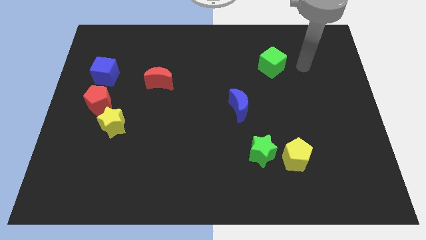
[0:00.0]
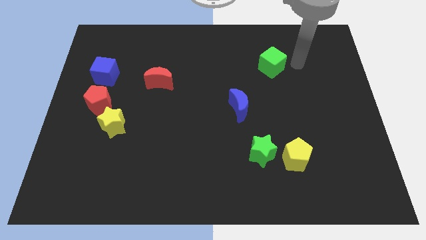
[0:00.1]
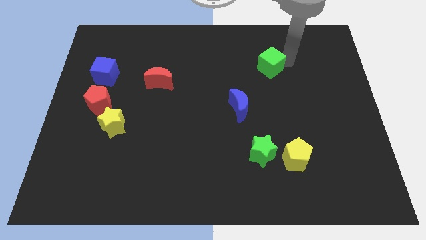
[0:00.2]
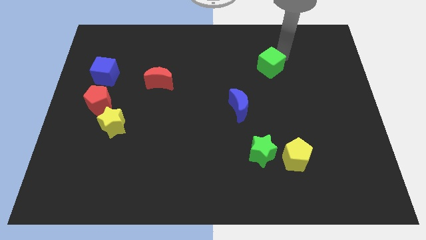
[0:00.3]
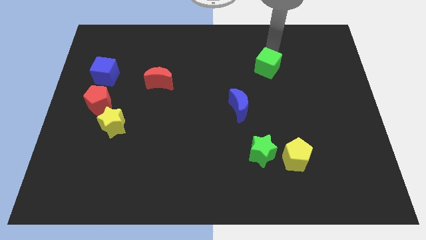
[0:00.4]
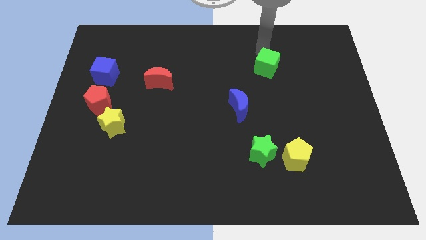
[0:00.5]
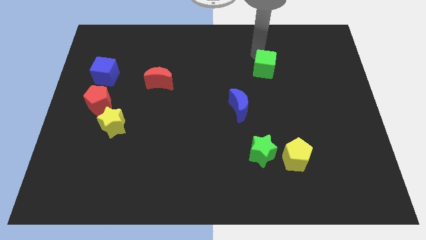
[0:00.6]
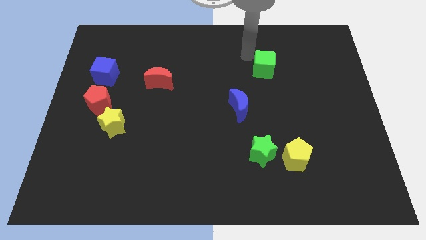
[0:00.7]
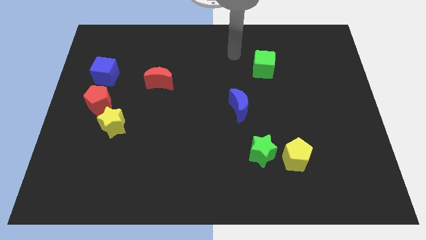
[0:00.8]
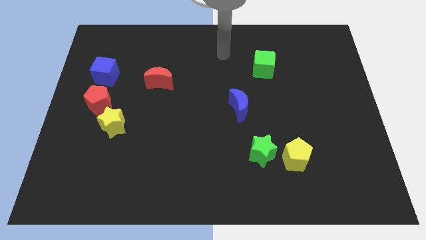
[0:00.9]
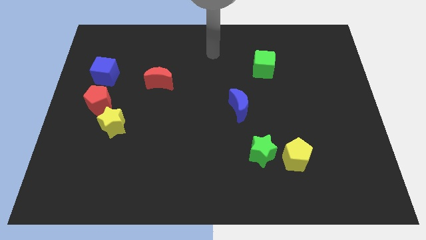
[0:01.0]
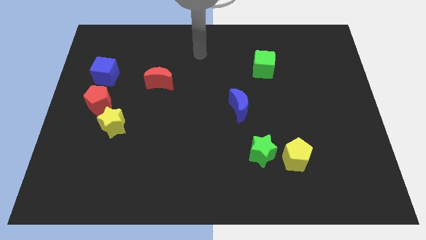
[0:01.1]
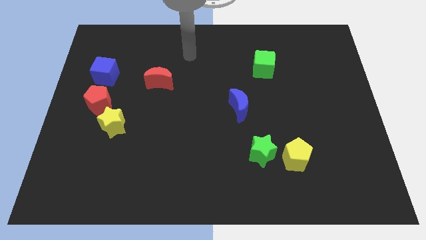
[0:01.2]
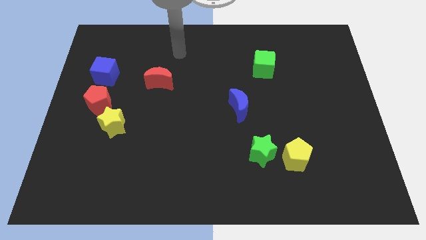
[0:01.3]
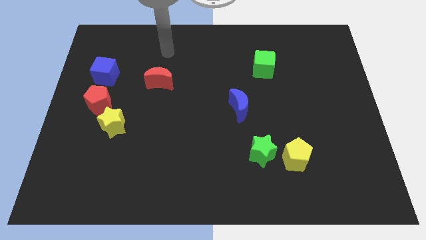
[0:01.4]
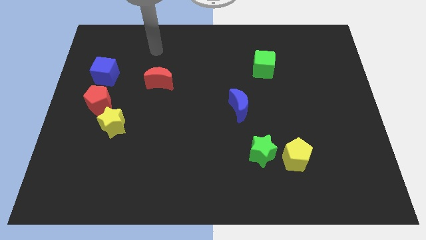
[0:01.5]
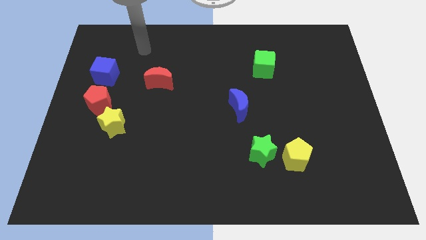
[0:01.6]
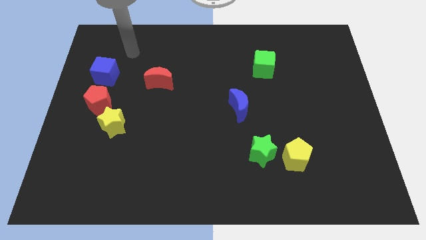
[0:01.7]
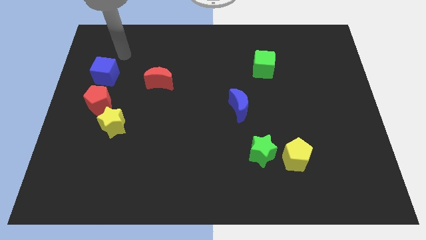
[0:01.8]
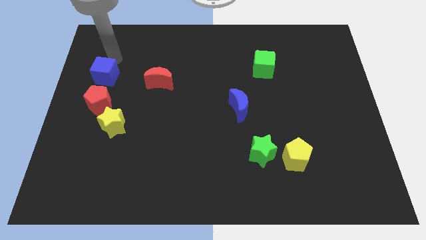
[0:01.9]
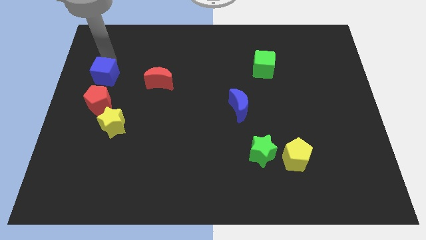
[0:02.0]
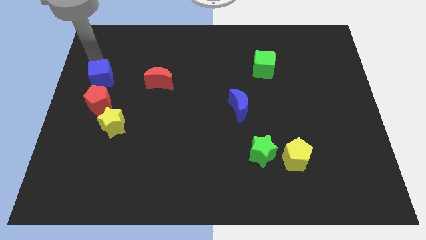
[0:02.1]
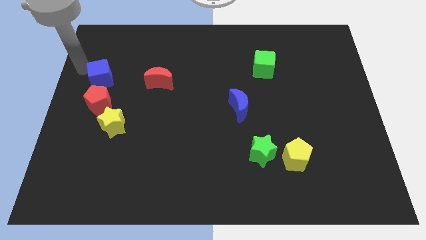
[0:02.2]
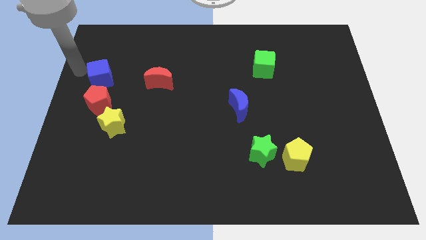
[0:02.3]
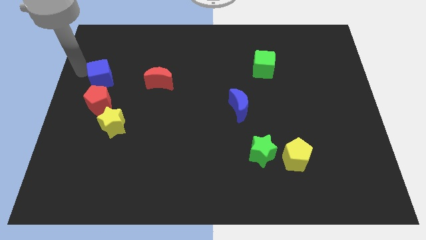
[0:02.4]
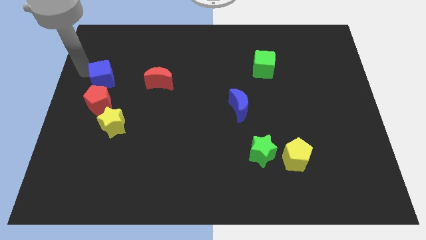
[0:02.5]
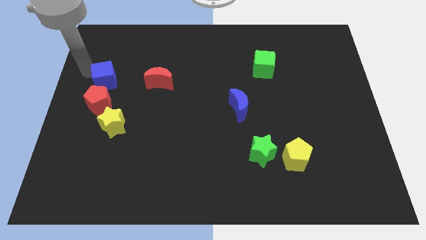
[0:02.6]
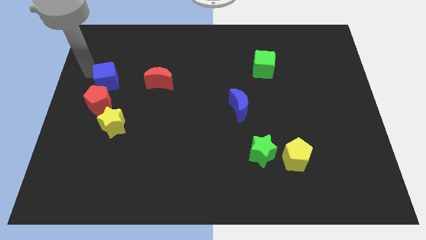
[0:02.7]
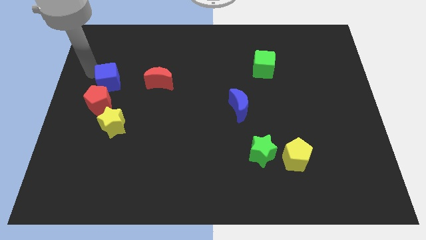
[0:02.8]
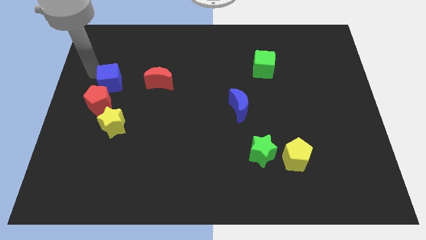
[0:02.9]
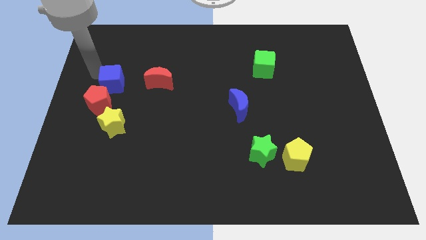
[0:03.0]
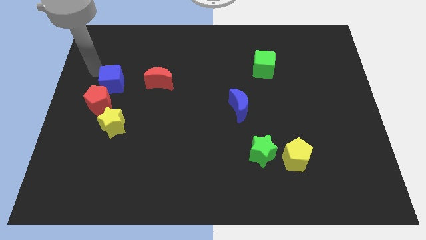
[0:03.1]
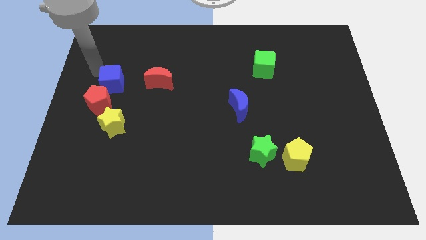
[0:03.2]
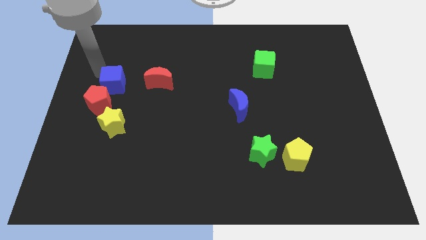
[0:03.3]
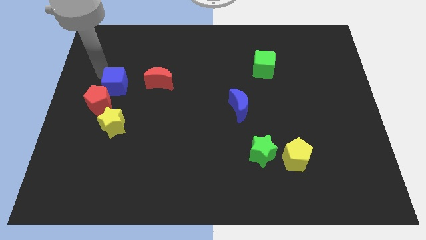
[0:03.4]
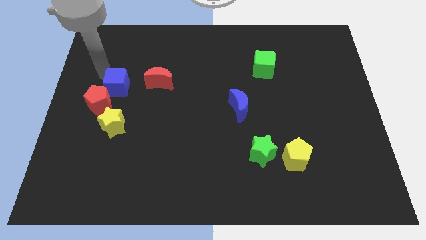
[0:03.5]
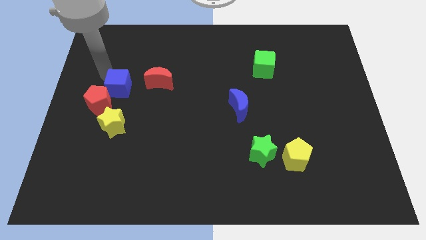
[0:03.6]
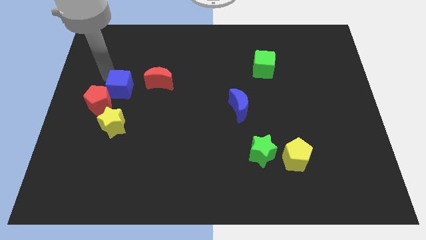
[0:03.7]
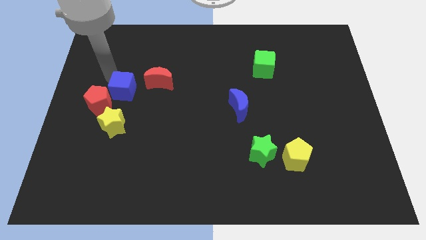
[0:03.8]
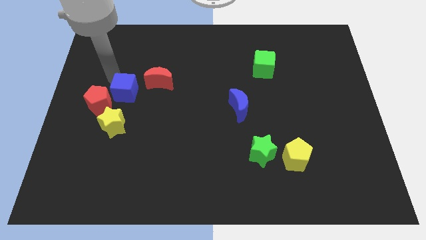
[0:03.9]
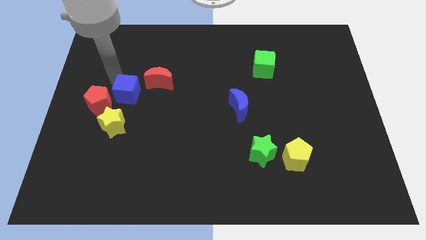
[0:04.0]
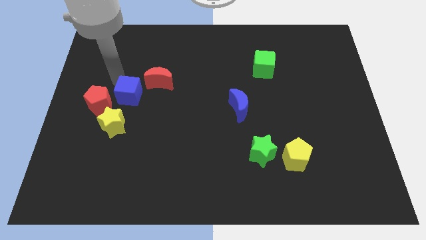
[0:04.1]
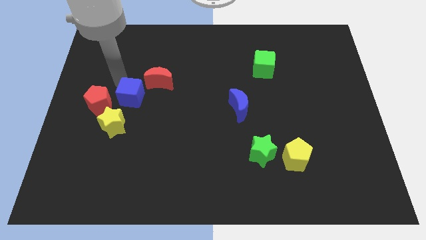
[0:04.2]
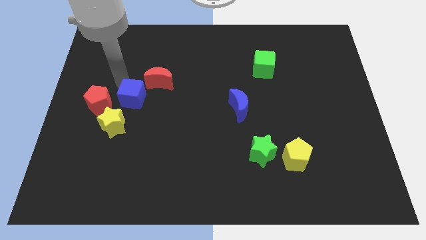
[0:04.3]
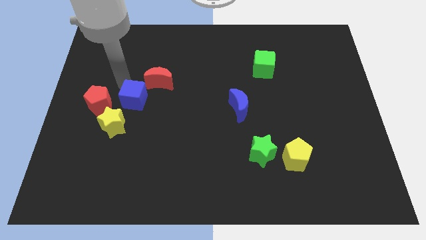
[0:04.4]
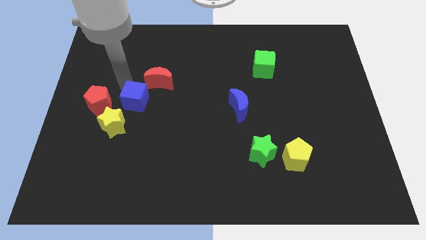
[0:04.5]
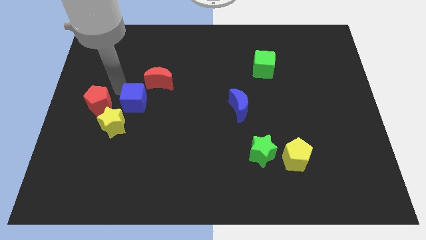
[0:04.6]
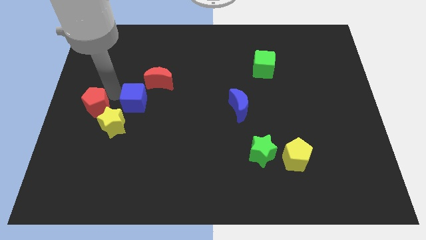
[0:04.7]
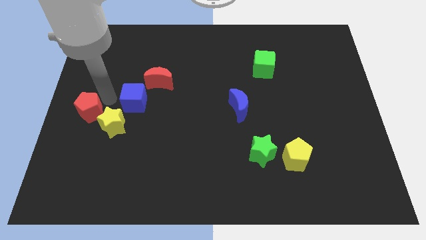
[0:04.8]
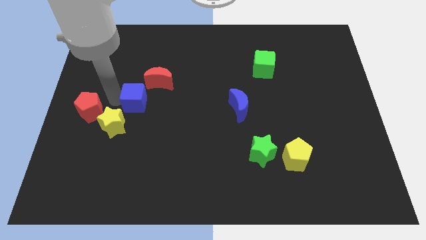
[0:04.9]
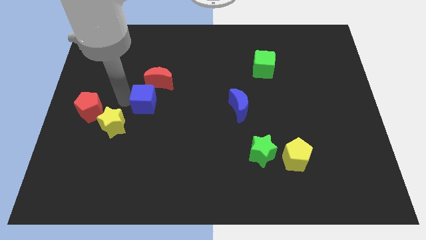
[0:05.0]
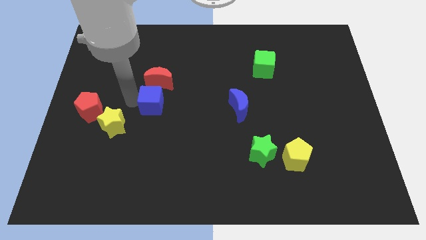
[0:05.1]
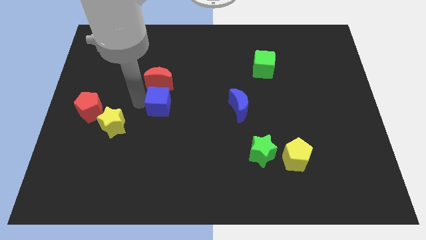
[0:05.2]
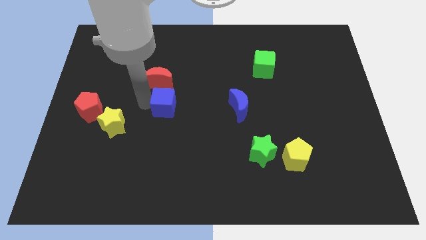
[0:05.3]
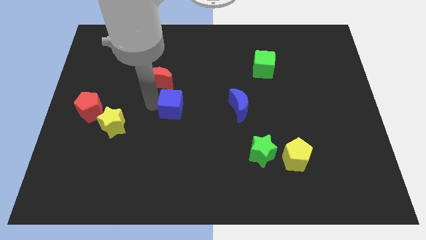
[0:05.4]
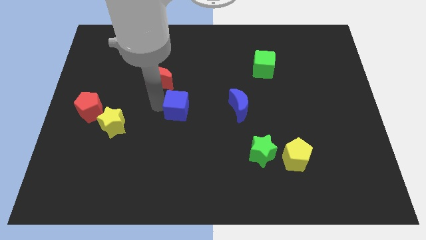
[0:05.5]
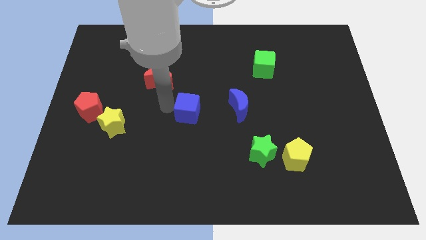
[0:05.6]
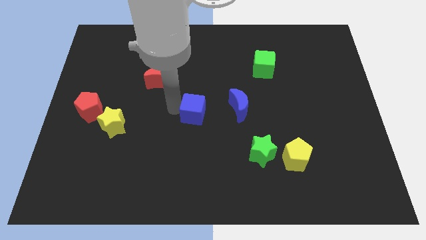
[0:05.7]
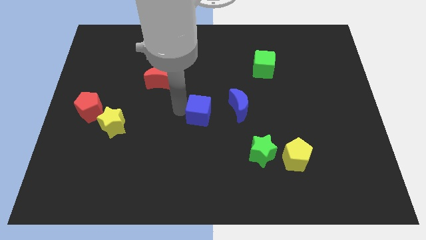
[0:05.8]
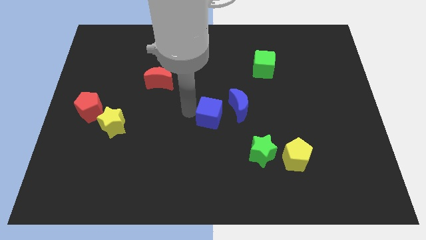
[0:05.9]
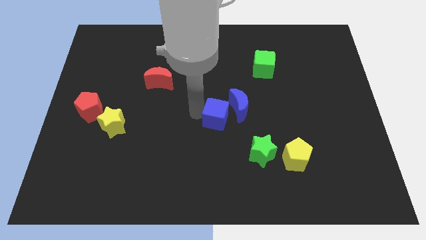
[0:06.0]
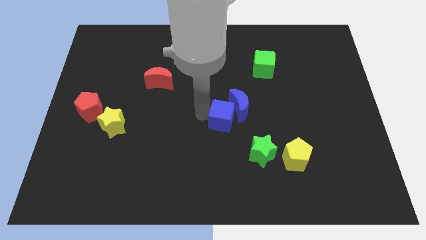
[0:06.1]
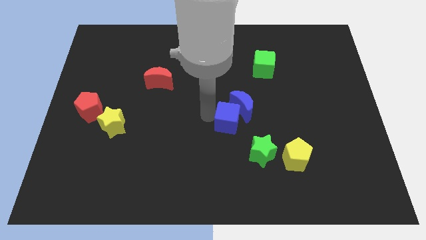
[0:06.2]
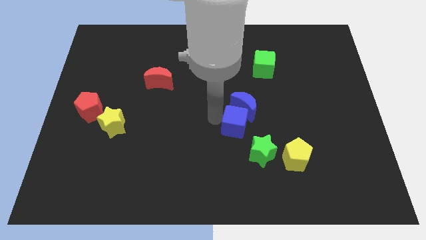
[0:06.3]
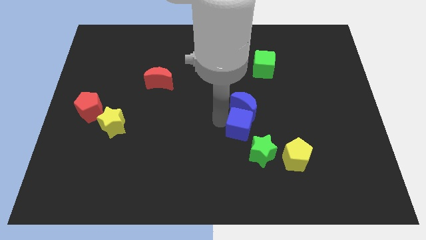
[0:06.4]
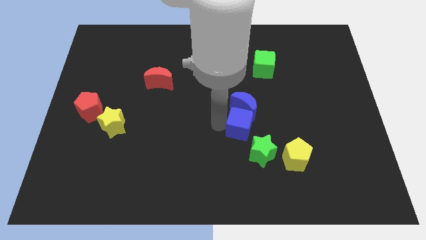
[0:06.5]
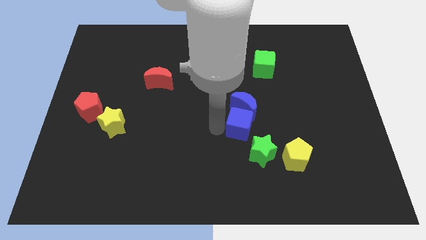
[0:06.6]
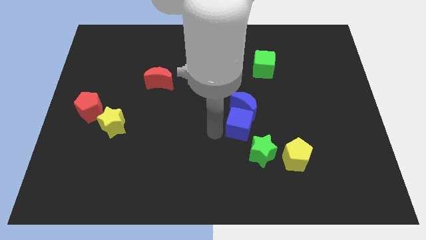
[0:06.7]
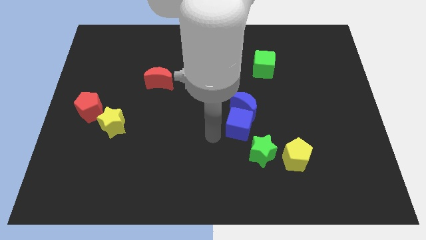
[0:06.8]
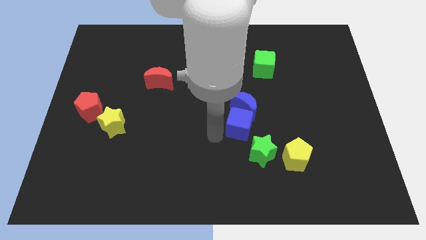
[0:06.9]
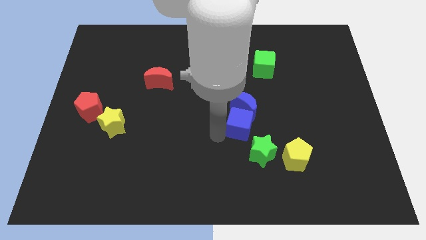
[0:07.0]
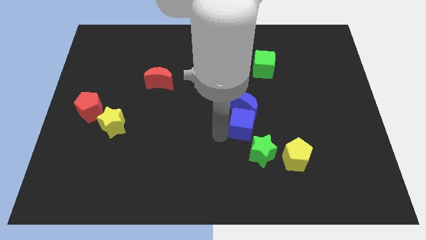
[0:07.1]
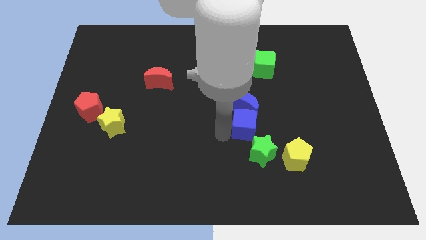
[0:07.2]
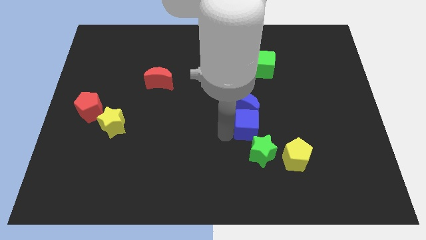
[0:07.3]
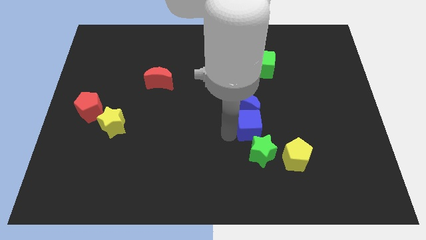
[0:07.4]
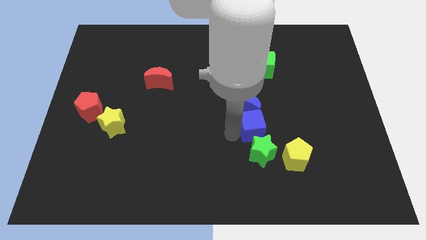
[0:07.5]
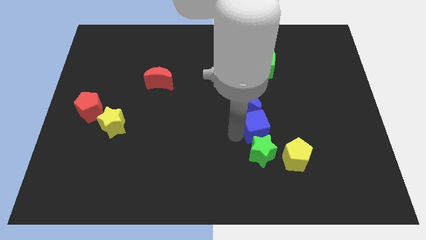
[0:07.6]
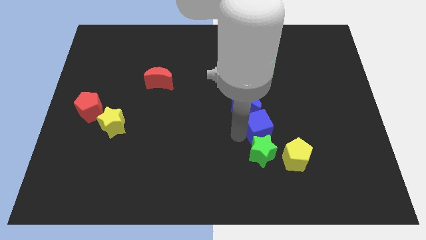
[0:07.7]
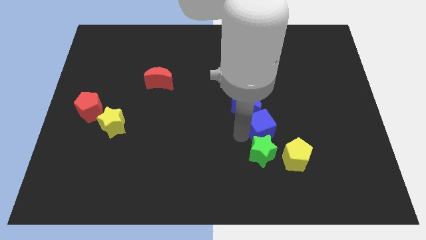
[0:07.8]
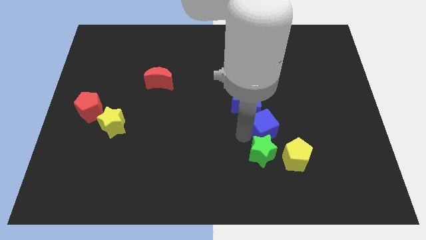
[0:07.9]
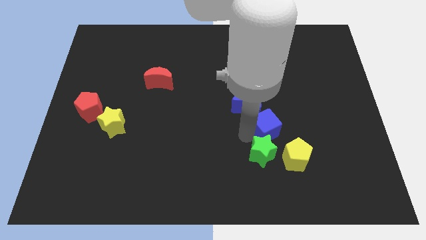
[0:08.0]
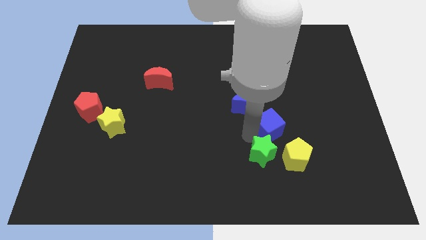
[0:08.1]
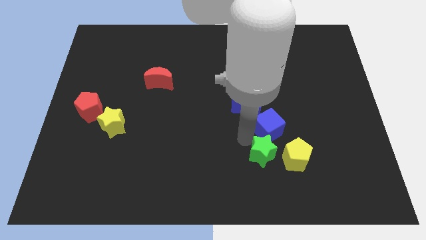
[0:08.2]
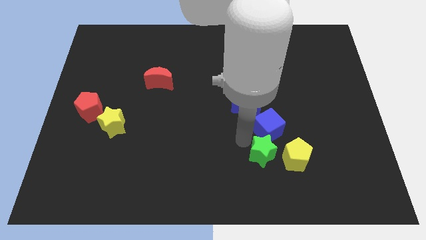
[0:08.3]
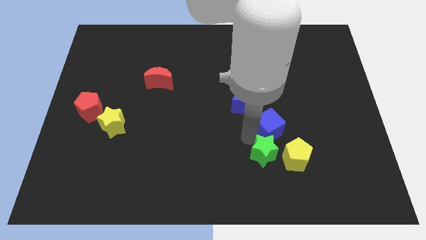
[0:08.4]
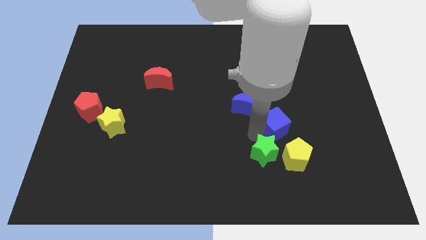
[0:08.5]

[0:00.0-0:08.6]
put the blue cube above the yellow pentagon
